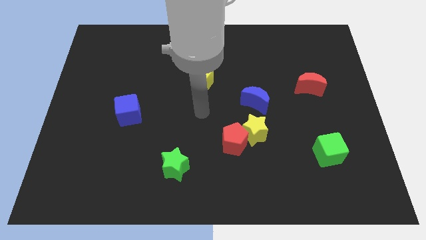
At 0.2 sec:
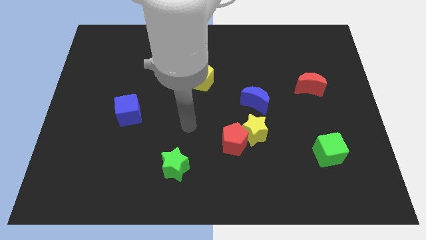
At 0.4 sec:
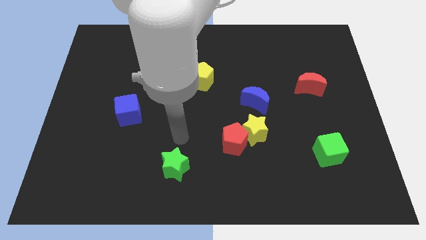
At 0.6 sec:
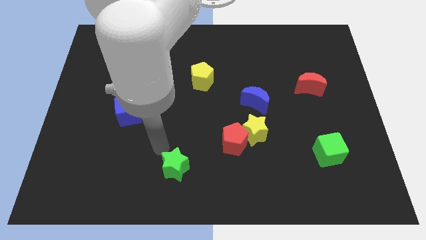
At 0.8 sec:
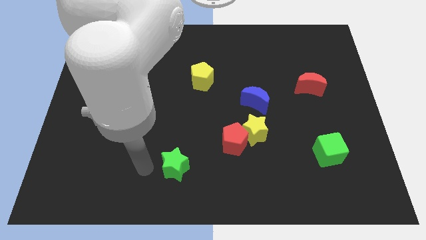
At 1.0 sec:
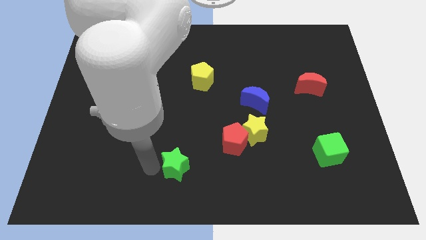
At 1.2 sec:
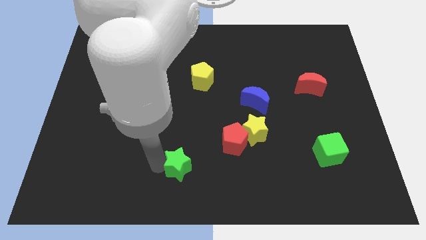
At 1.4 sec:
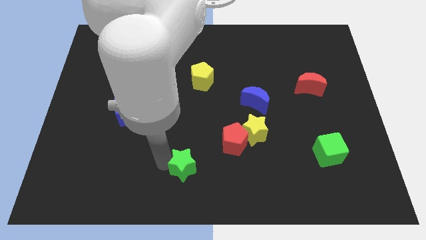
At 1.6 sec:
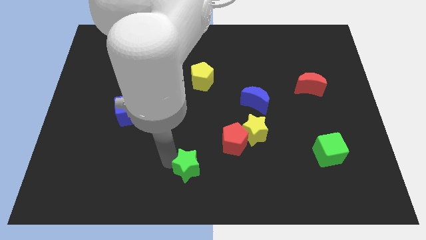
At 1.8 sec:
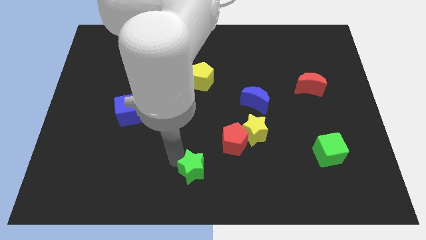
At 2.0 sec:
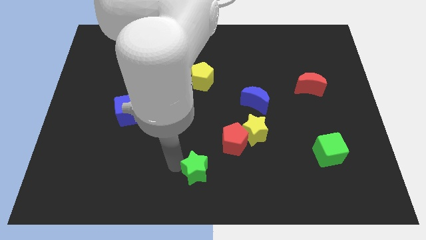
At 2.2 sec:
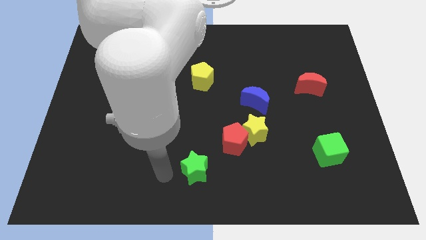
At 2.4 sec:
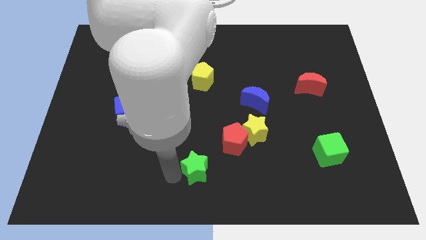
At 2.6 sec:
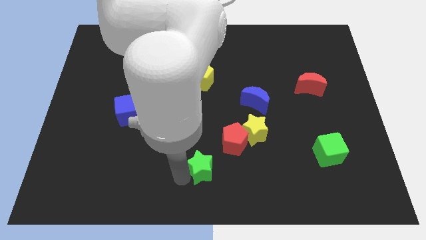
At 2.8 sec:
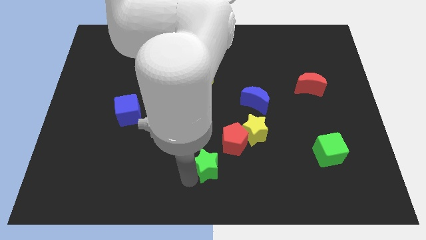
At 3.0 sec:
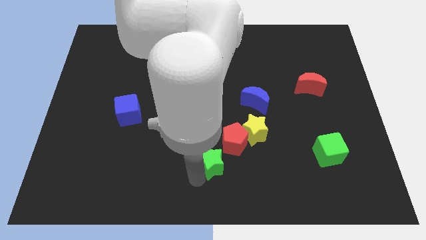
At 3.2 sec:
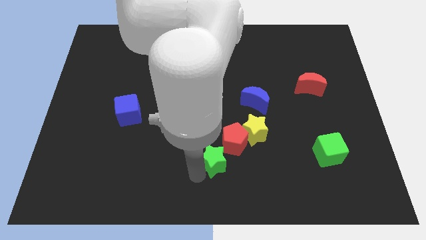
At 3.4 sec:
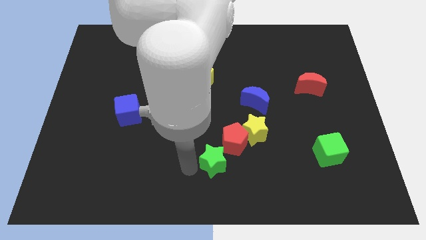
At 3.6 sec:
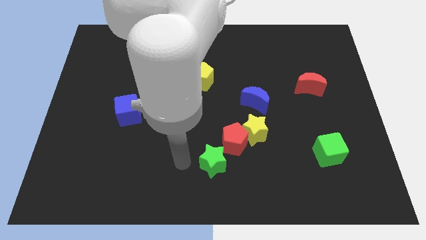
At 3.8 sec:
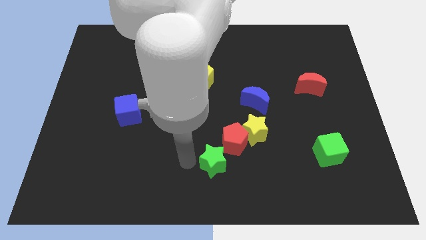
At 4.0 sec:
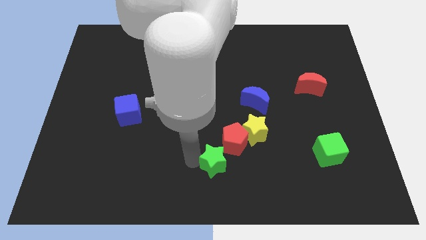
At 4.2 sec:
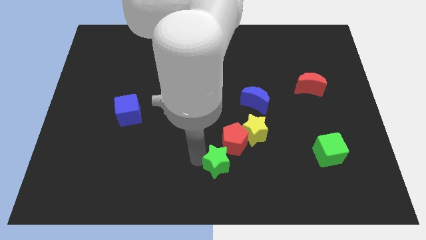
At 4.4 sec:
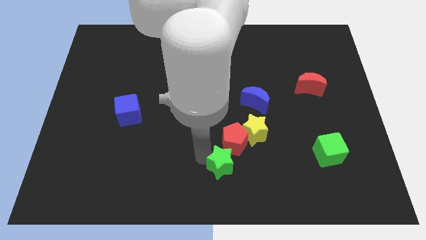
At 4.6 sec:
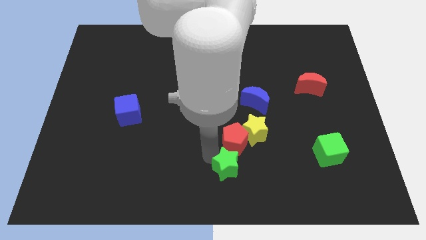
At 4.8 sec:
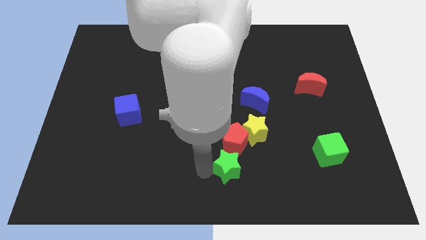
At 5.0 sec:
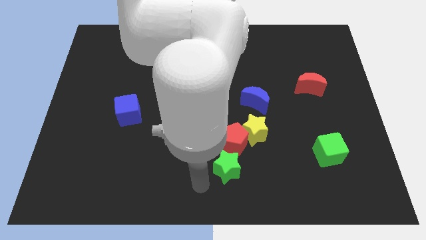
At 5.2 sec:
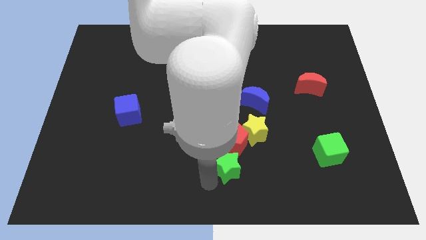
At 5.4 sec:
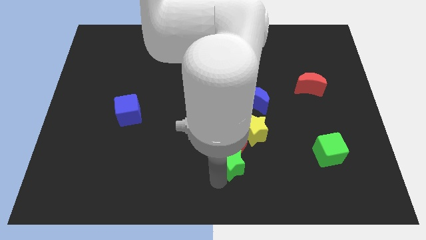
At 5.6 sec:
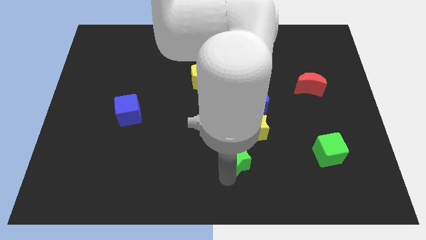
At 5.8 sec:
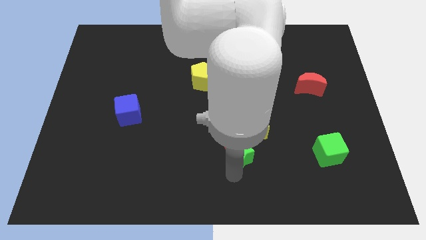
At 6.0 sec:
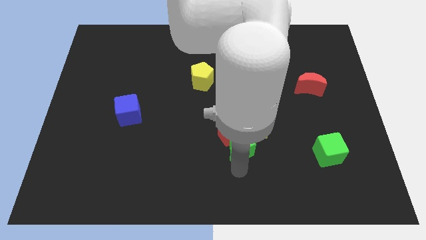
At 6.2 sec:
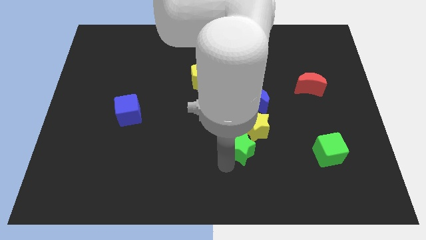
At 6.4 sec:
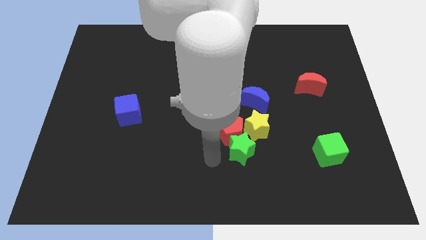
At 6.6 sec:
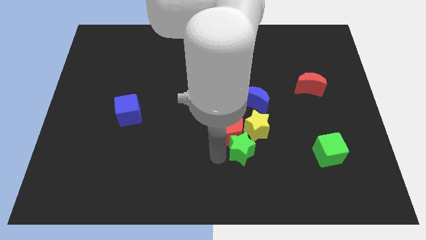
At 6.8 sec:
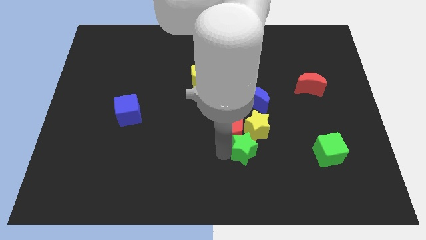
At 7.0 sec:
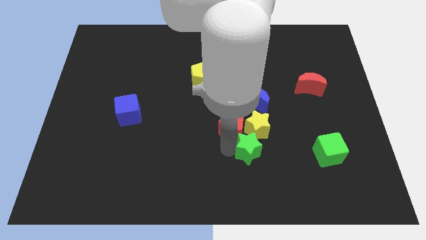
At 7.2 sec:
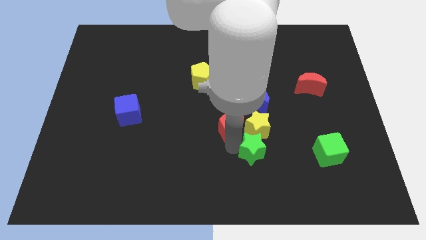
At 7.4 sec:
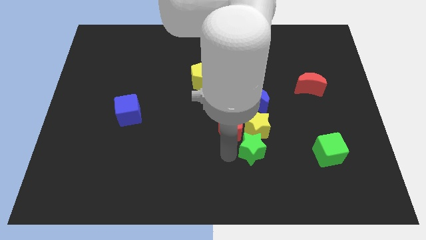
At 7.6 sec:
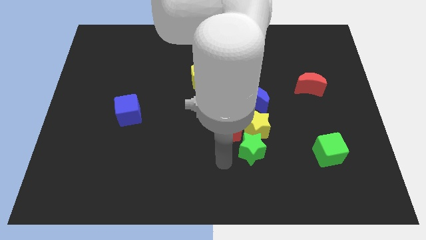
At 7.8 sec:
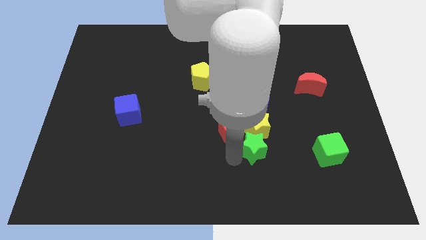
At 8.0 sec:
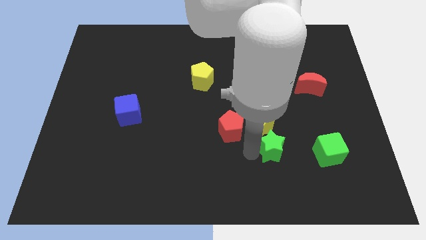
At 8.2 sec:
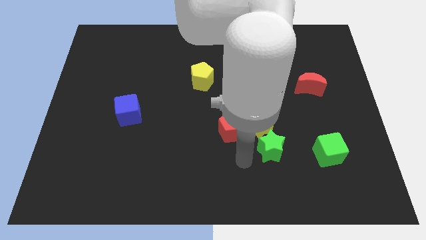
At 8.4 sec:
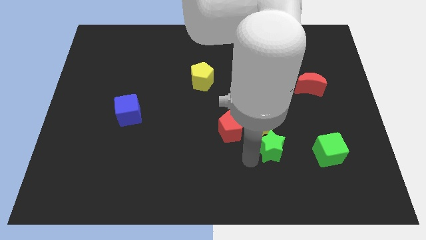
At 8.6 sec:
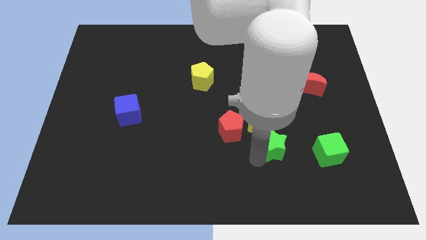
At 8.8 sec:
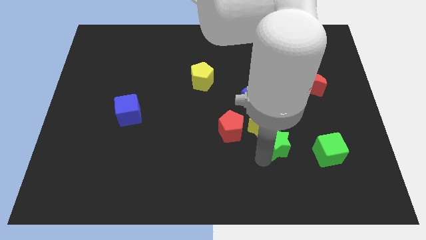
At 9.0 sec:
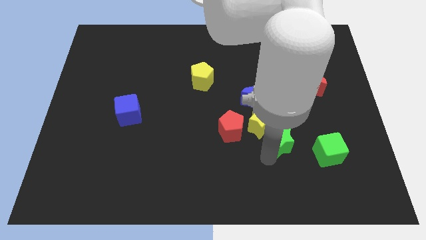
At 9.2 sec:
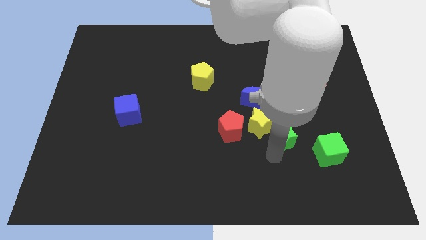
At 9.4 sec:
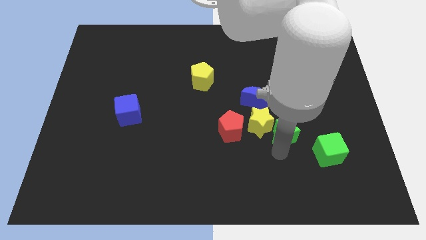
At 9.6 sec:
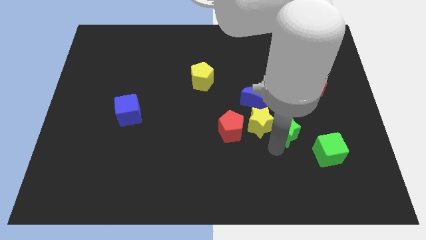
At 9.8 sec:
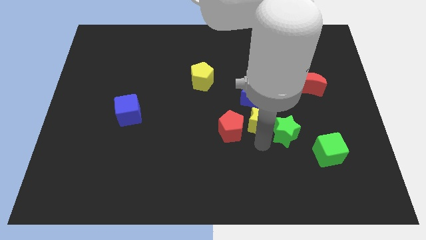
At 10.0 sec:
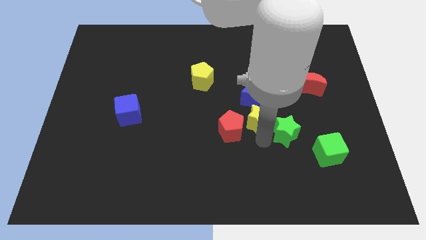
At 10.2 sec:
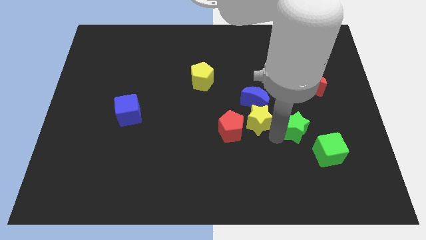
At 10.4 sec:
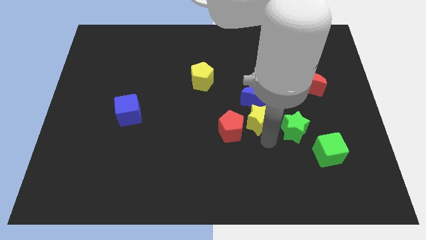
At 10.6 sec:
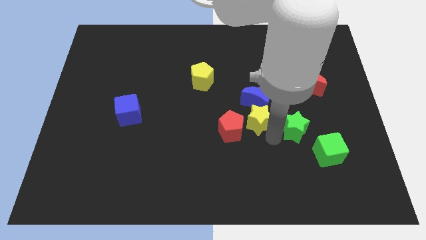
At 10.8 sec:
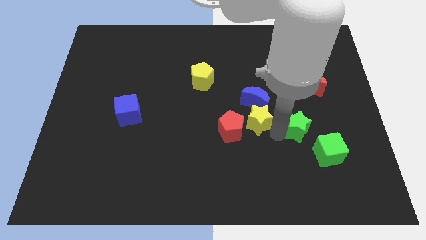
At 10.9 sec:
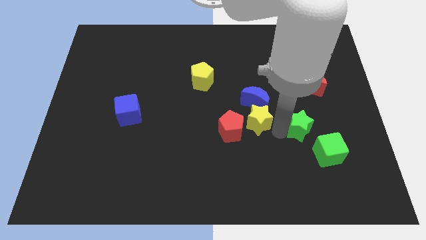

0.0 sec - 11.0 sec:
move the green star to the bottom of the red moon

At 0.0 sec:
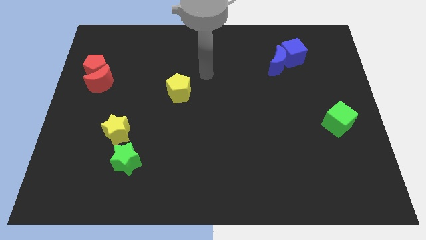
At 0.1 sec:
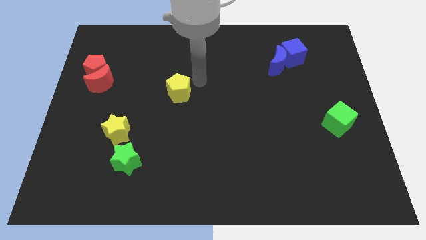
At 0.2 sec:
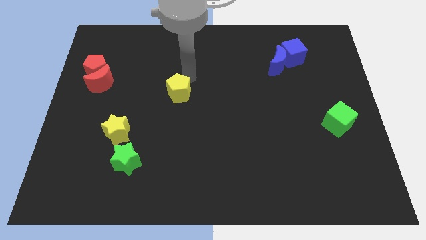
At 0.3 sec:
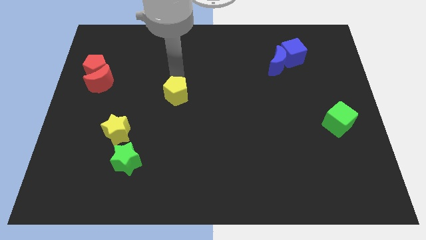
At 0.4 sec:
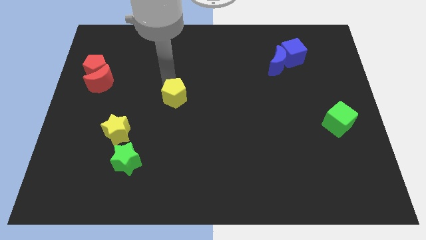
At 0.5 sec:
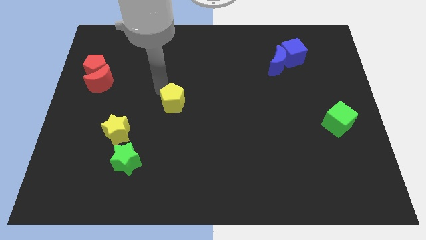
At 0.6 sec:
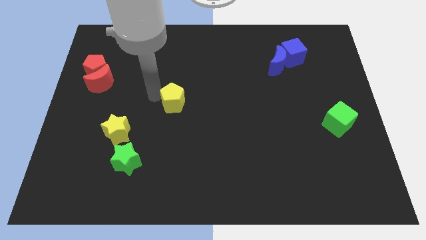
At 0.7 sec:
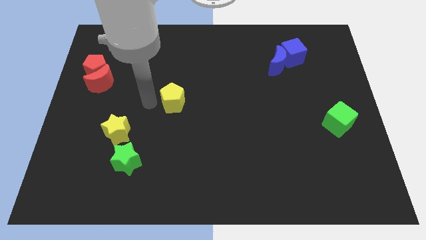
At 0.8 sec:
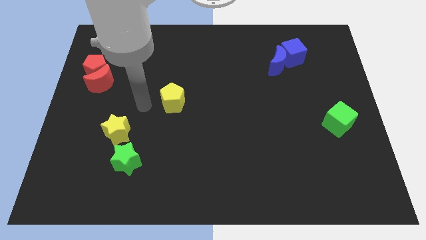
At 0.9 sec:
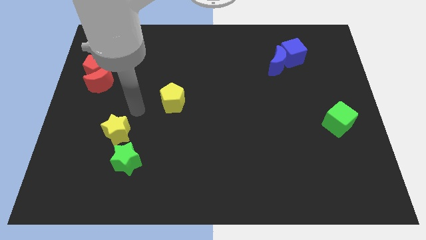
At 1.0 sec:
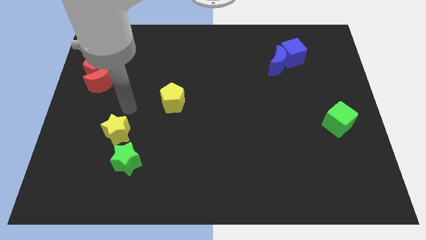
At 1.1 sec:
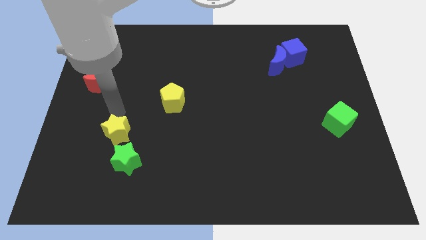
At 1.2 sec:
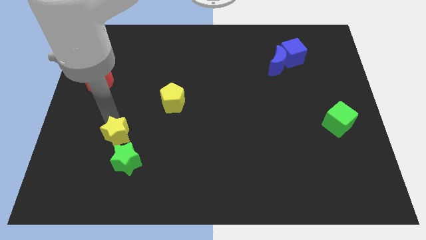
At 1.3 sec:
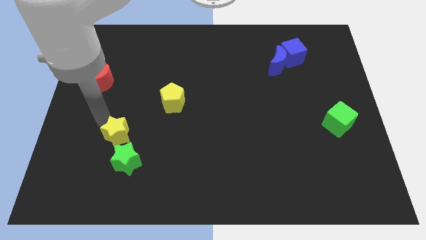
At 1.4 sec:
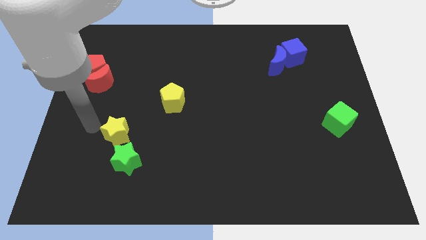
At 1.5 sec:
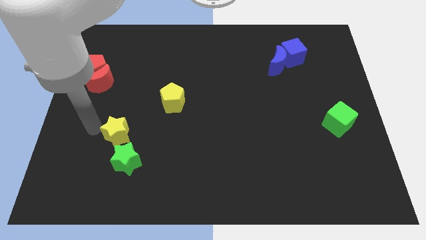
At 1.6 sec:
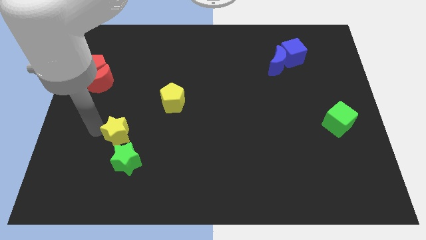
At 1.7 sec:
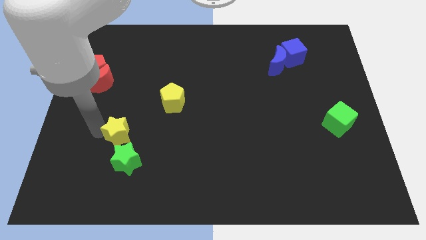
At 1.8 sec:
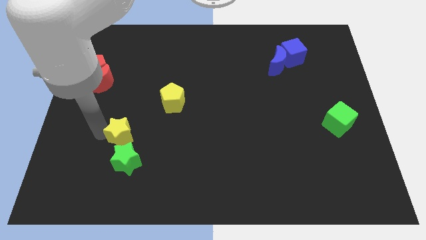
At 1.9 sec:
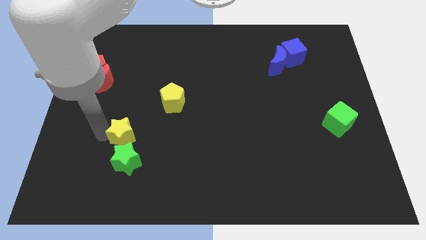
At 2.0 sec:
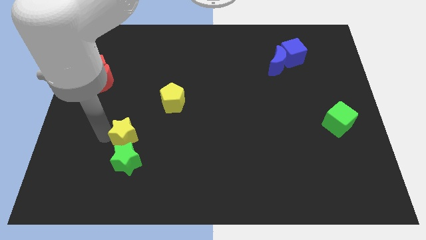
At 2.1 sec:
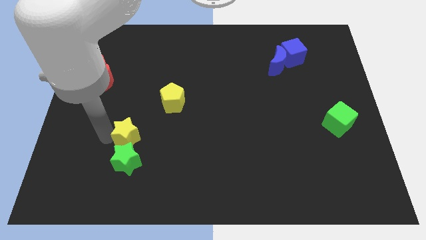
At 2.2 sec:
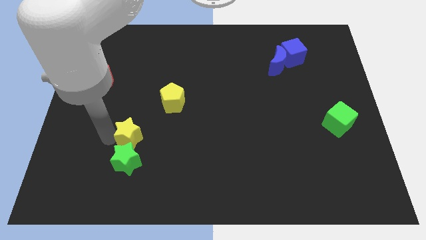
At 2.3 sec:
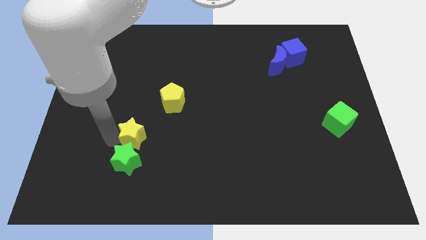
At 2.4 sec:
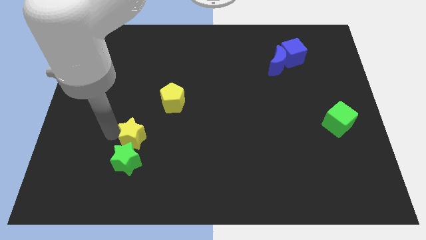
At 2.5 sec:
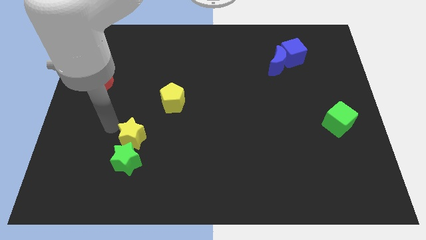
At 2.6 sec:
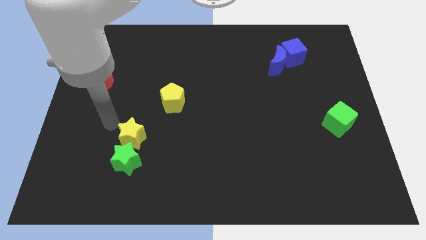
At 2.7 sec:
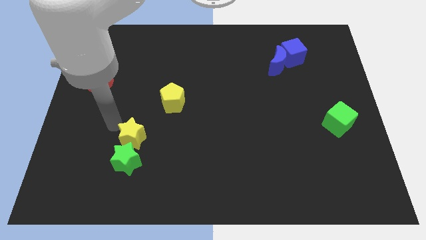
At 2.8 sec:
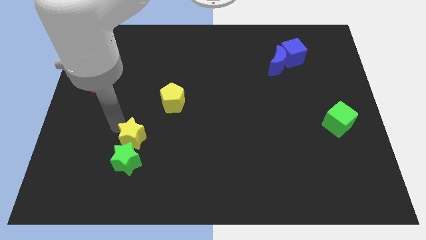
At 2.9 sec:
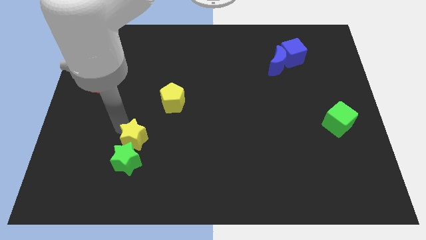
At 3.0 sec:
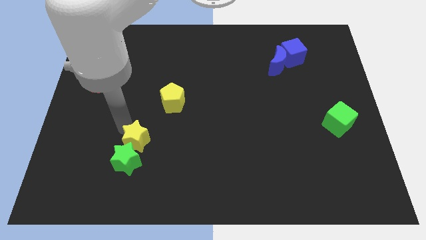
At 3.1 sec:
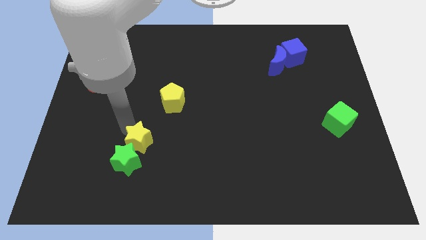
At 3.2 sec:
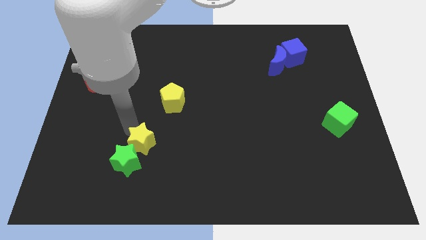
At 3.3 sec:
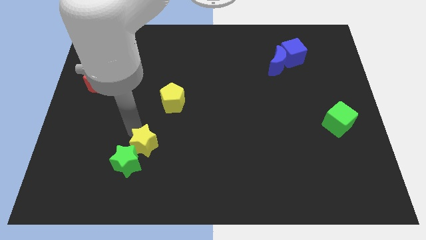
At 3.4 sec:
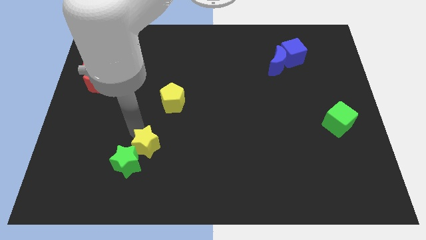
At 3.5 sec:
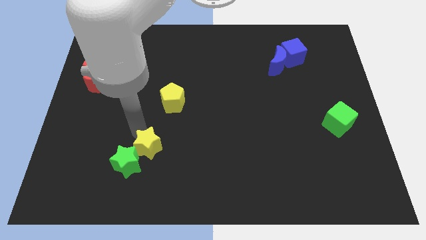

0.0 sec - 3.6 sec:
move the yellow star to the right of the green star
